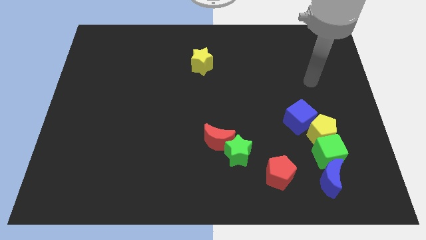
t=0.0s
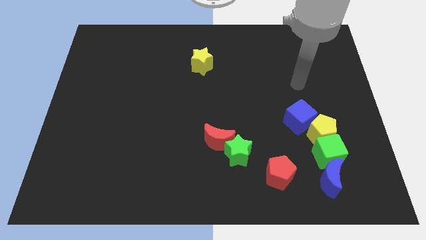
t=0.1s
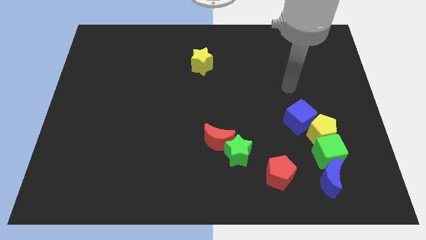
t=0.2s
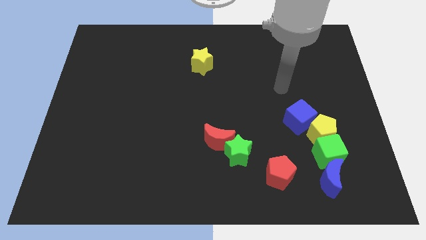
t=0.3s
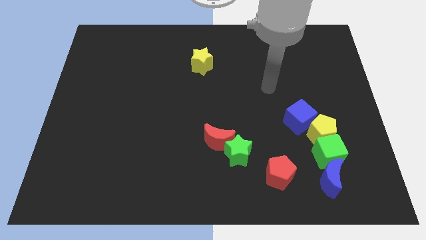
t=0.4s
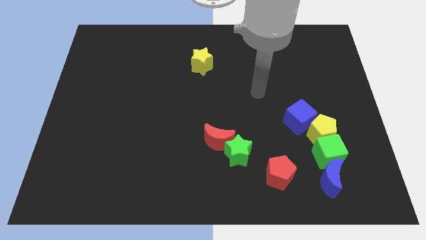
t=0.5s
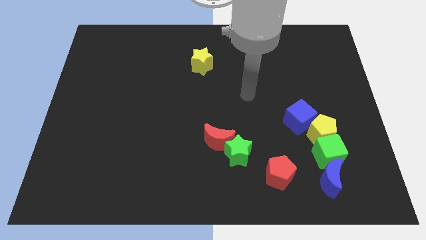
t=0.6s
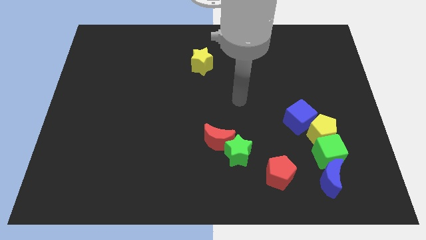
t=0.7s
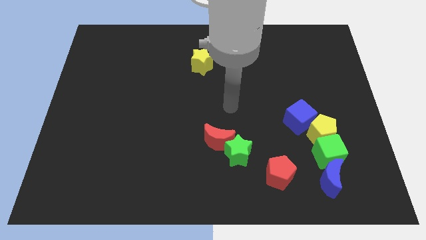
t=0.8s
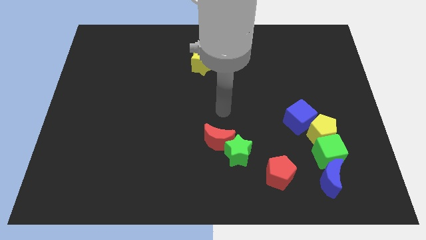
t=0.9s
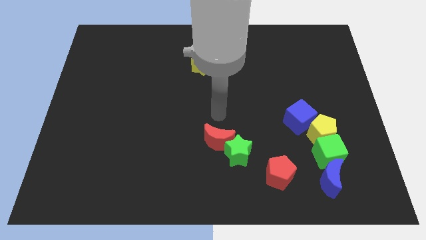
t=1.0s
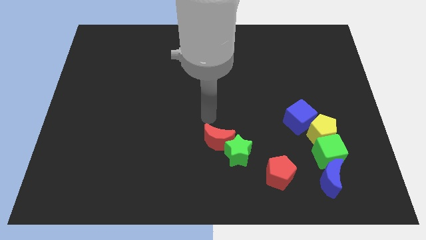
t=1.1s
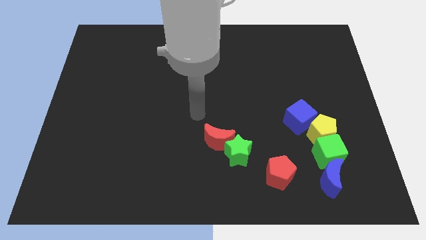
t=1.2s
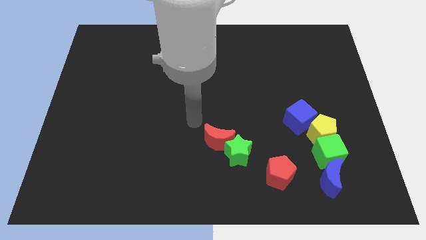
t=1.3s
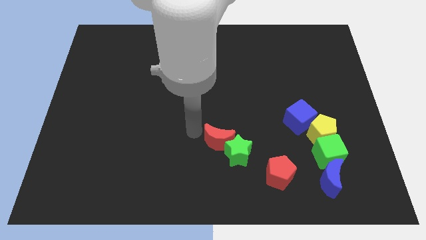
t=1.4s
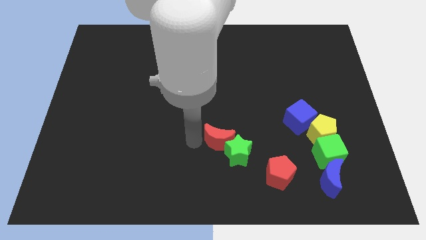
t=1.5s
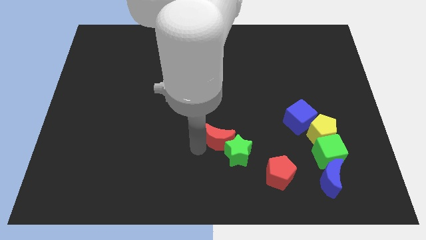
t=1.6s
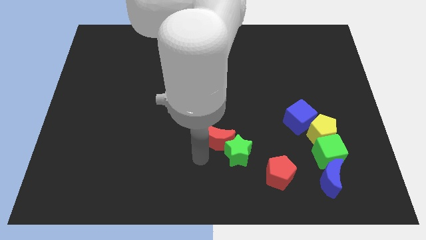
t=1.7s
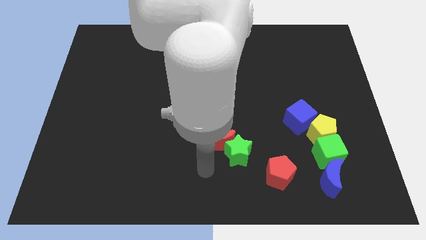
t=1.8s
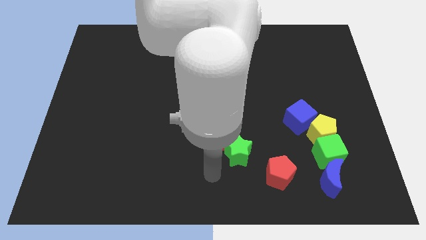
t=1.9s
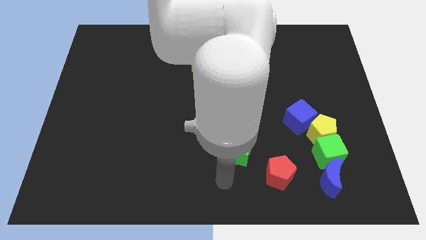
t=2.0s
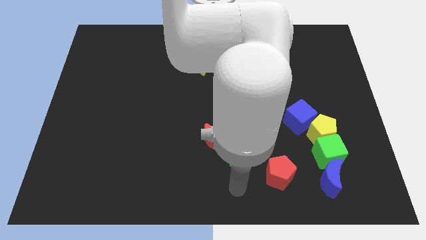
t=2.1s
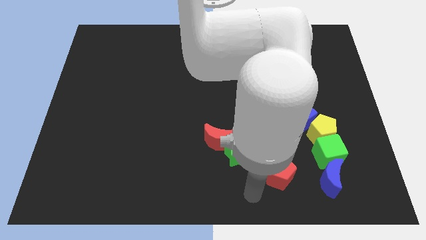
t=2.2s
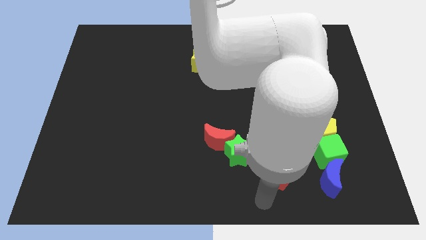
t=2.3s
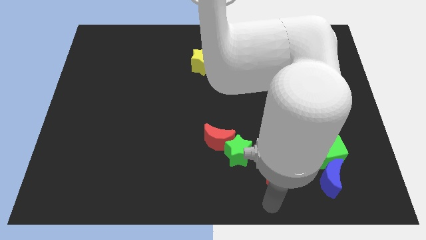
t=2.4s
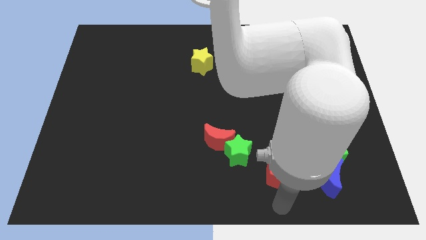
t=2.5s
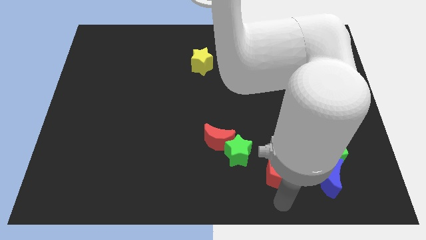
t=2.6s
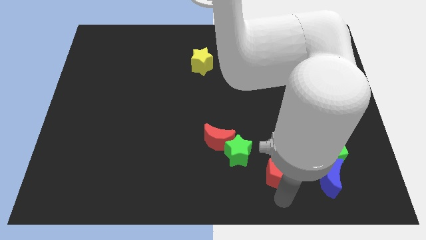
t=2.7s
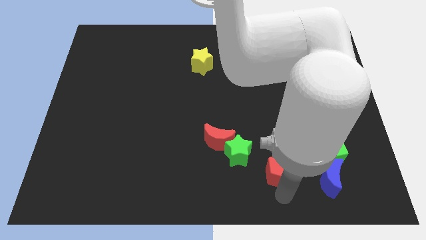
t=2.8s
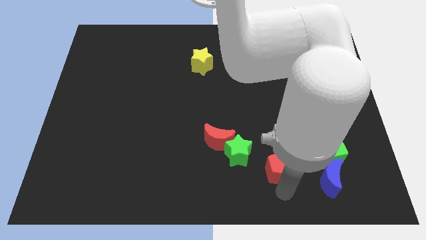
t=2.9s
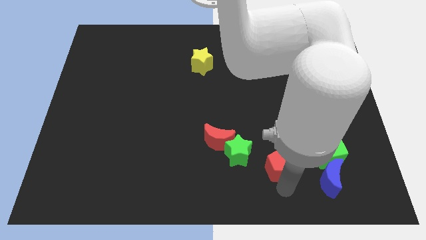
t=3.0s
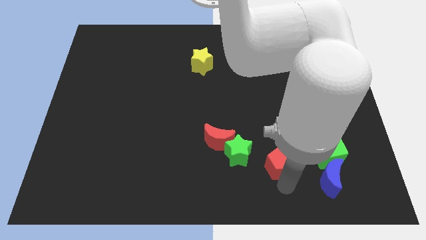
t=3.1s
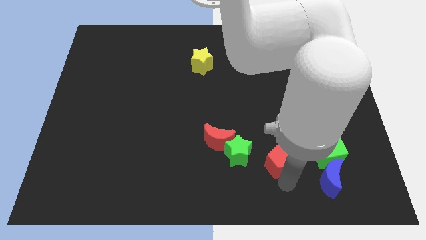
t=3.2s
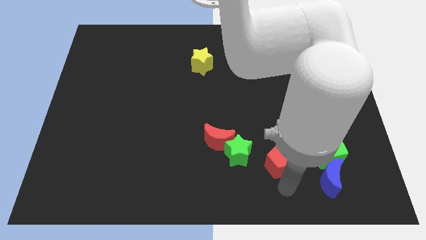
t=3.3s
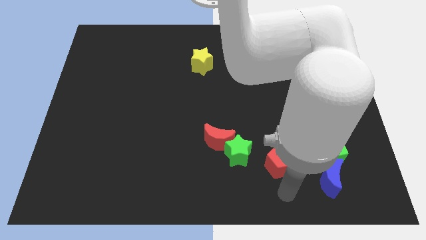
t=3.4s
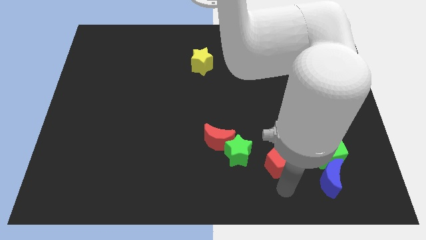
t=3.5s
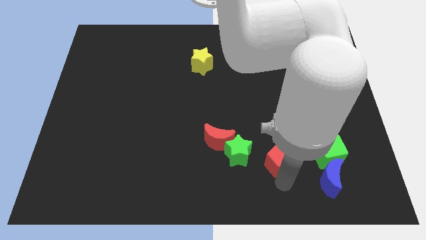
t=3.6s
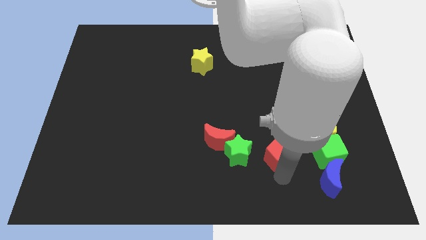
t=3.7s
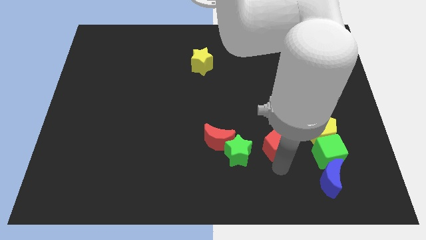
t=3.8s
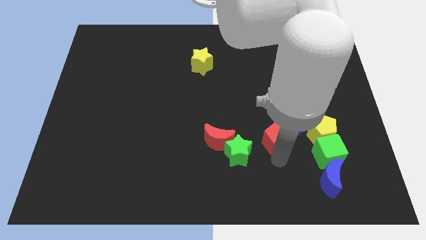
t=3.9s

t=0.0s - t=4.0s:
slide the red pentagon a little upwards

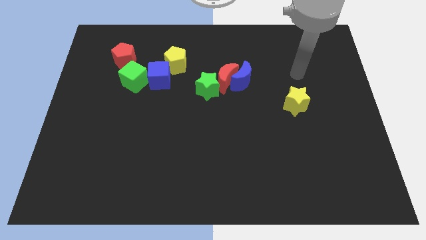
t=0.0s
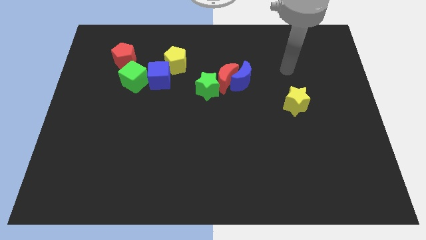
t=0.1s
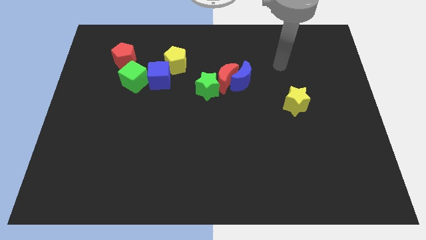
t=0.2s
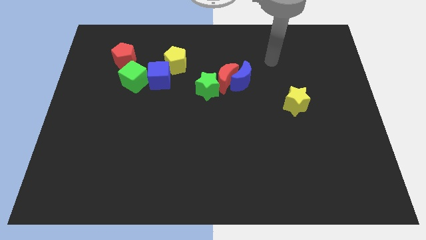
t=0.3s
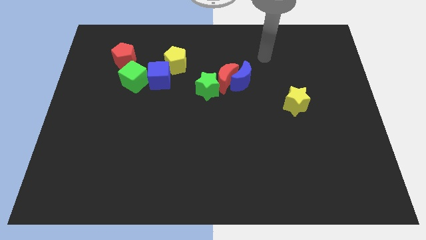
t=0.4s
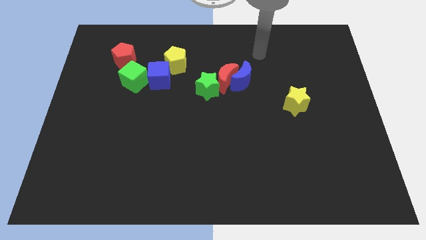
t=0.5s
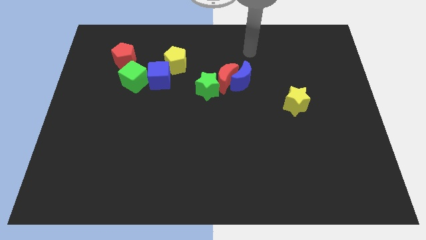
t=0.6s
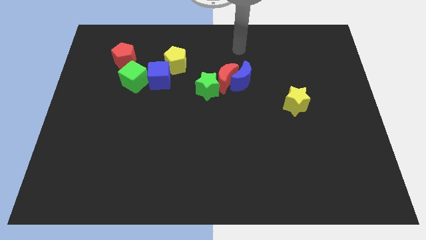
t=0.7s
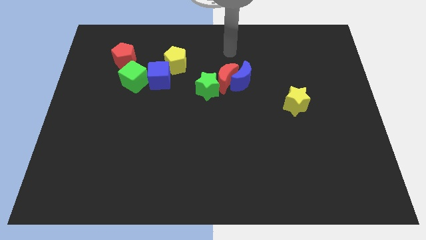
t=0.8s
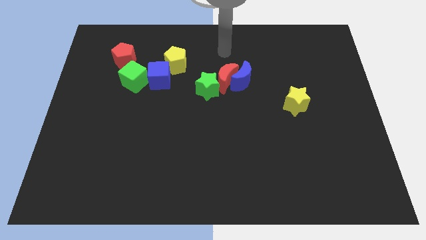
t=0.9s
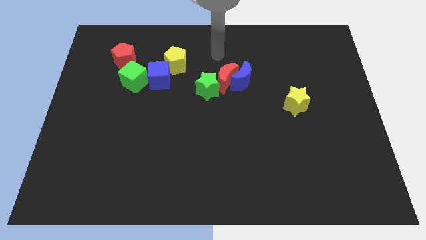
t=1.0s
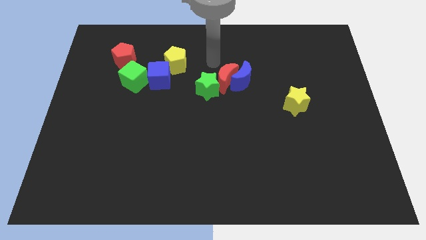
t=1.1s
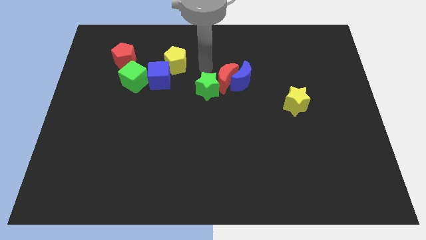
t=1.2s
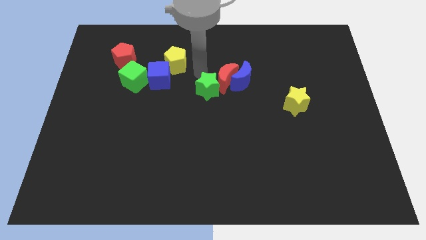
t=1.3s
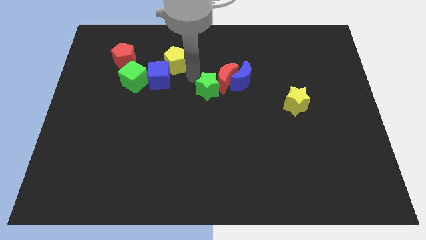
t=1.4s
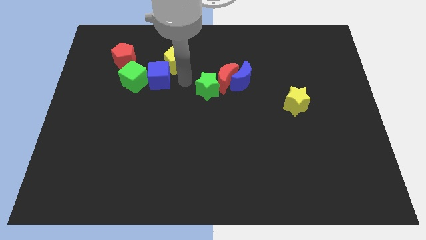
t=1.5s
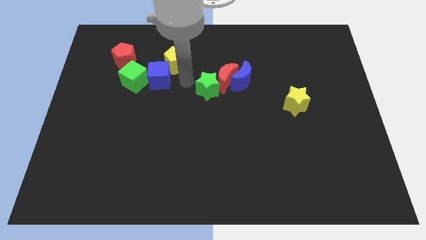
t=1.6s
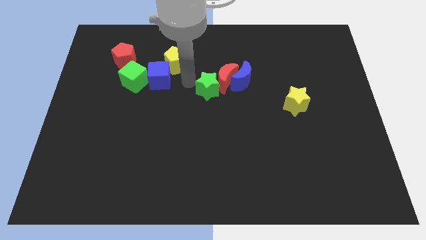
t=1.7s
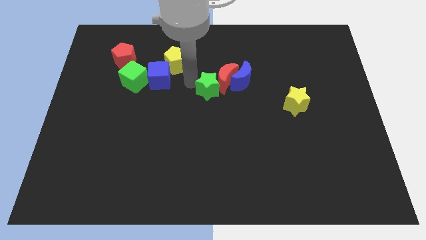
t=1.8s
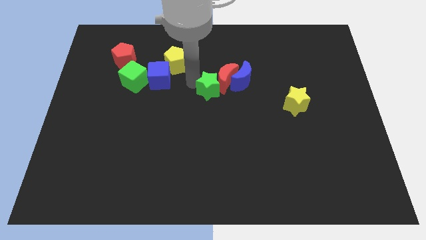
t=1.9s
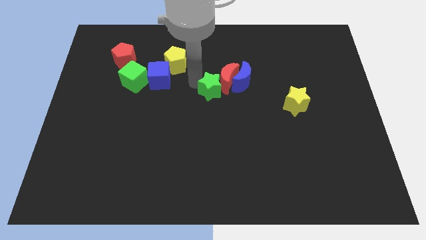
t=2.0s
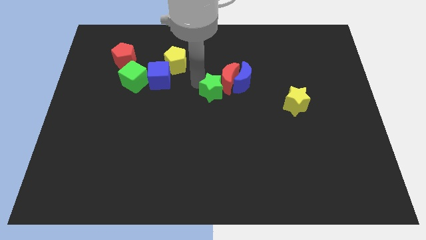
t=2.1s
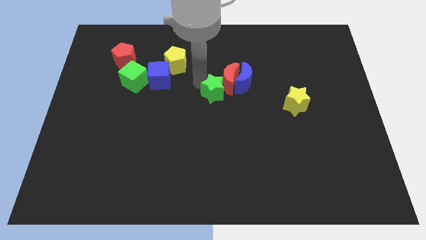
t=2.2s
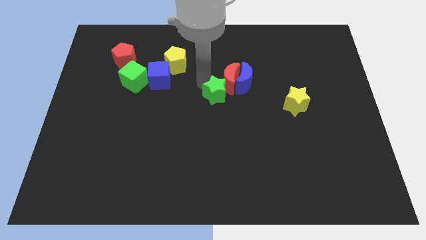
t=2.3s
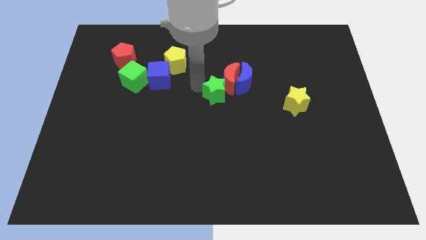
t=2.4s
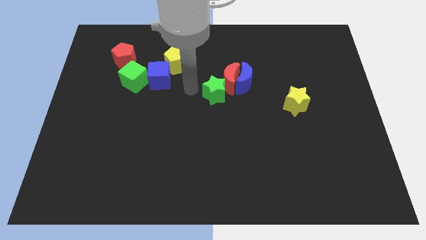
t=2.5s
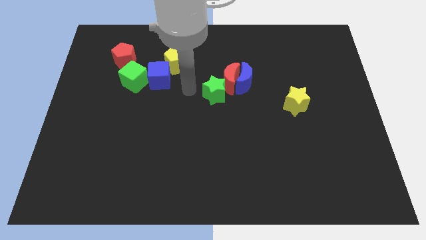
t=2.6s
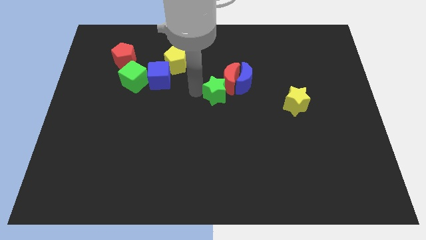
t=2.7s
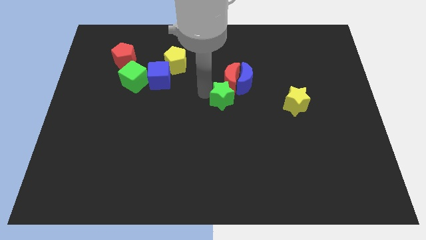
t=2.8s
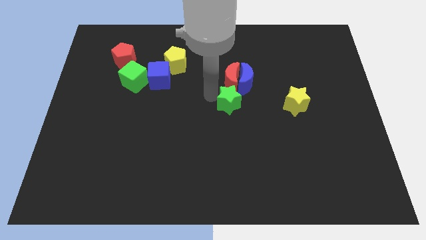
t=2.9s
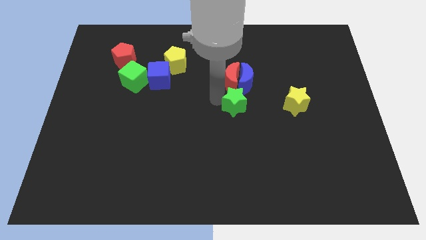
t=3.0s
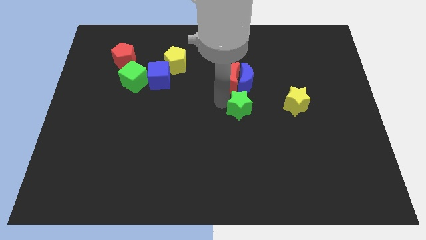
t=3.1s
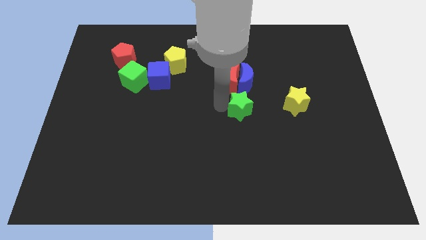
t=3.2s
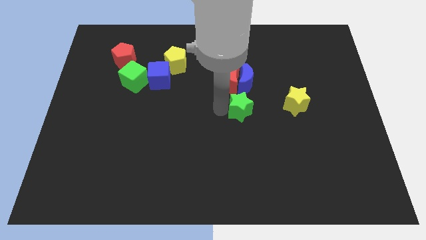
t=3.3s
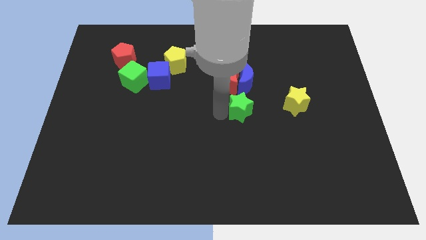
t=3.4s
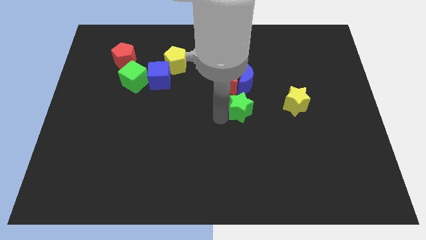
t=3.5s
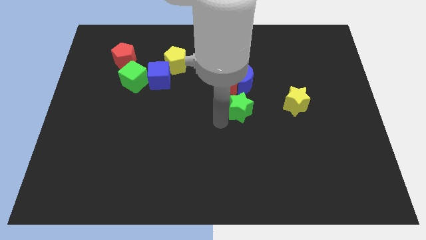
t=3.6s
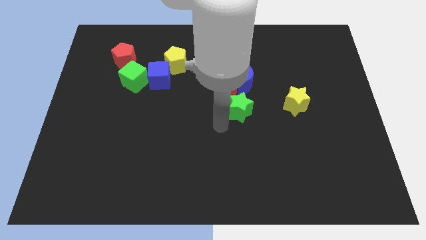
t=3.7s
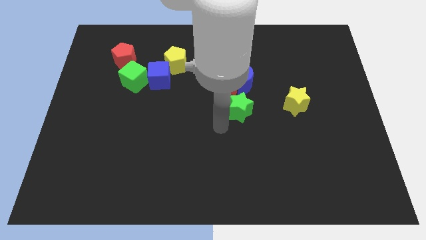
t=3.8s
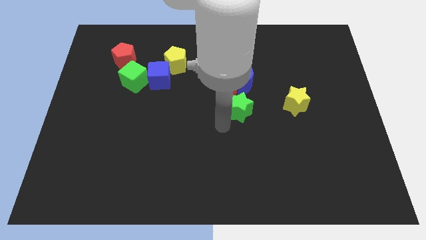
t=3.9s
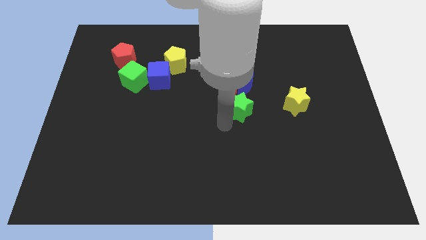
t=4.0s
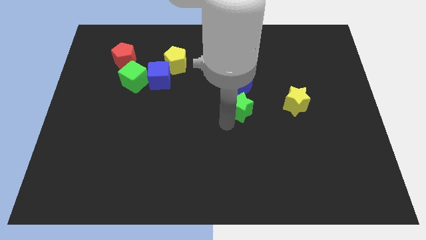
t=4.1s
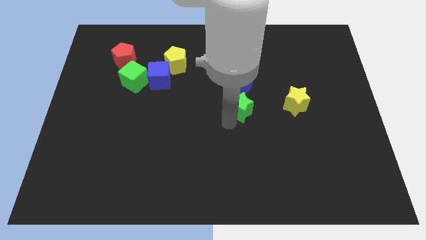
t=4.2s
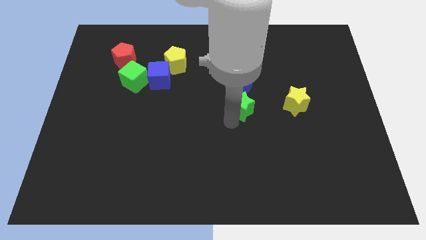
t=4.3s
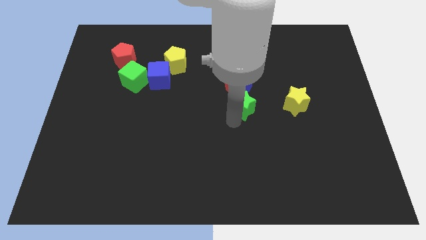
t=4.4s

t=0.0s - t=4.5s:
push the green star somewhat right
